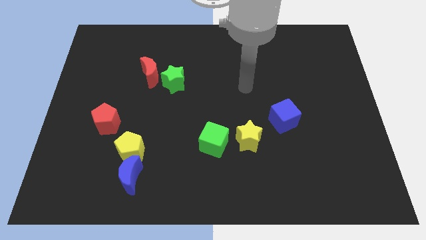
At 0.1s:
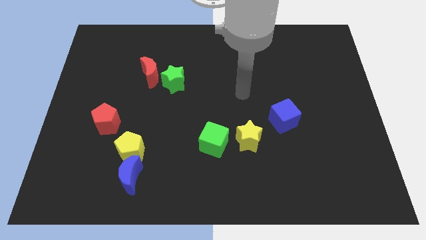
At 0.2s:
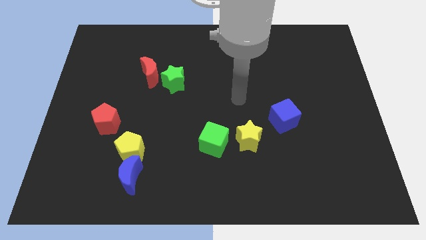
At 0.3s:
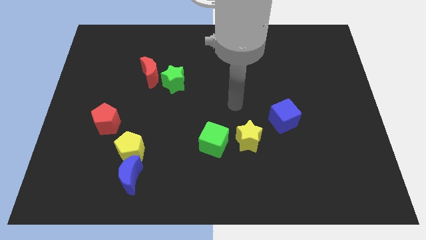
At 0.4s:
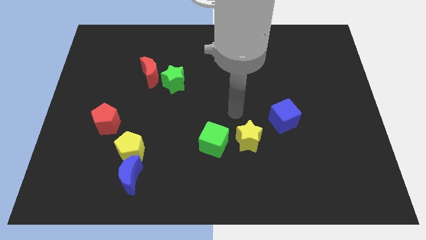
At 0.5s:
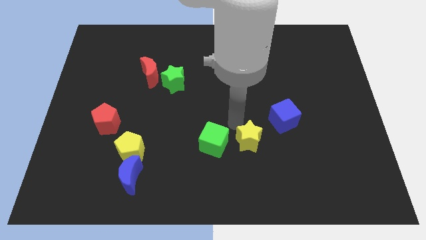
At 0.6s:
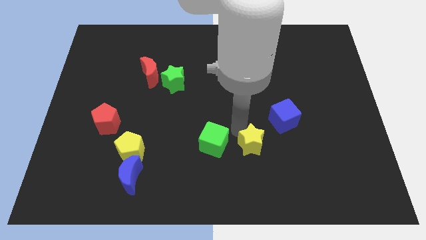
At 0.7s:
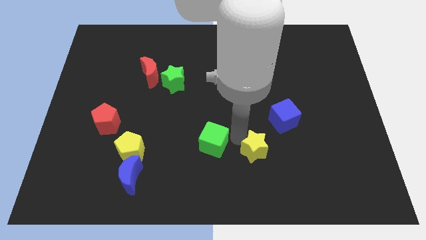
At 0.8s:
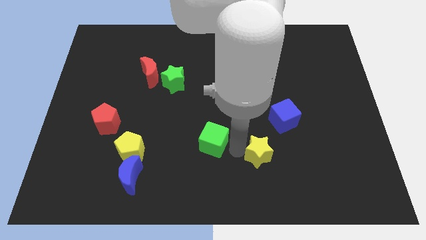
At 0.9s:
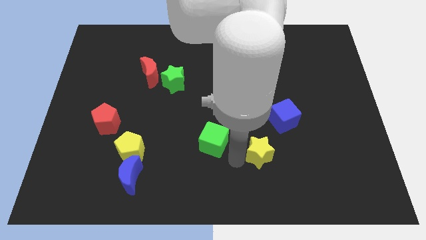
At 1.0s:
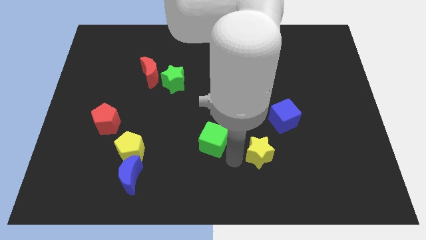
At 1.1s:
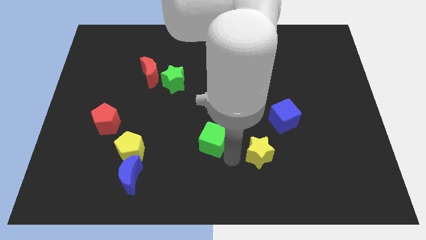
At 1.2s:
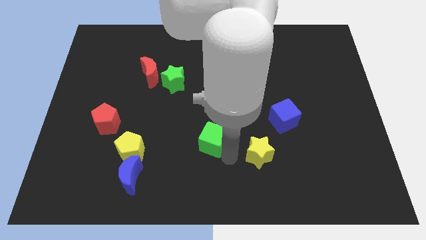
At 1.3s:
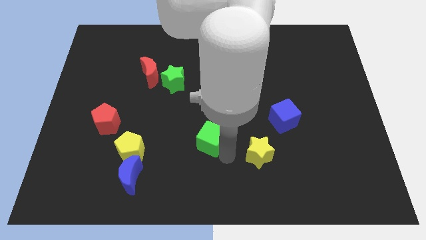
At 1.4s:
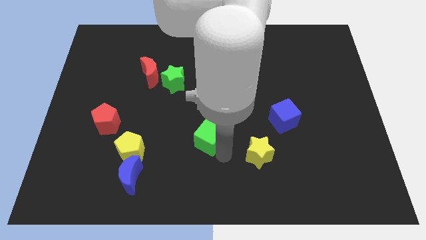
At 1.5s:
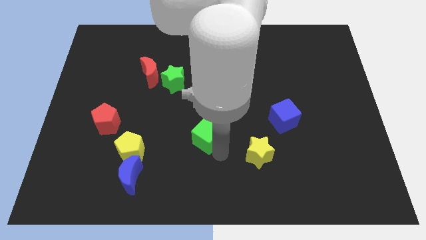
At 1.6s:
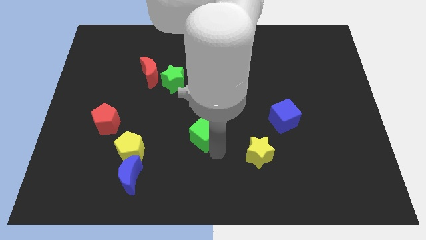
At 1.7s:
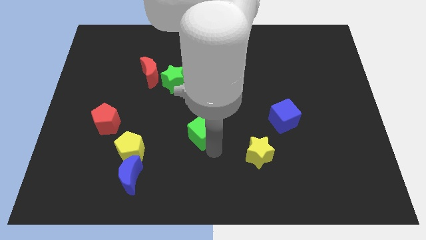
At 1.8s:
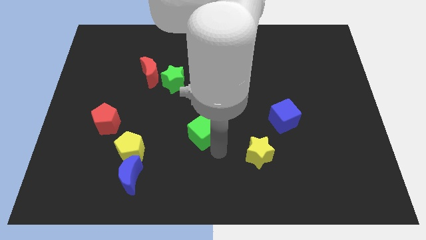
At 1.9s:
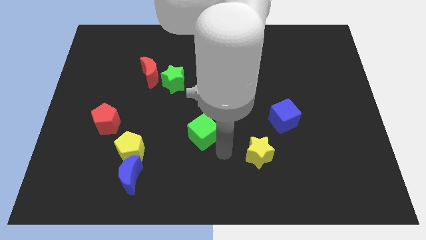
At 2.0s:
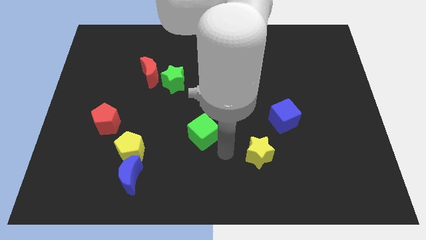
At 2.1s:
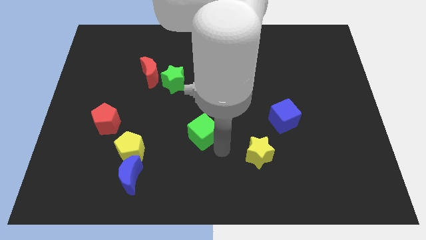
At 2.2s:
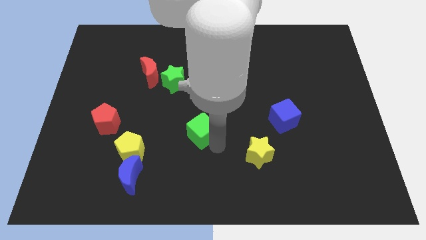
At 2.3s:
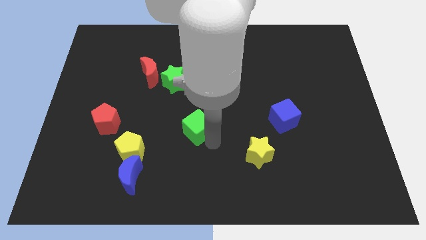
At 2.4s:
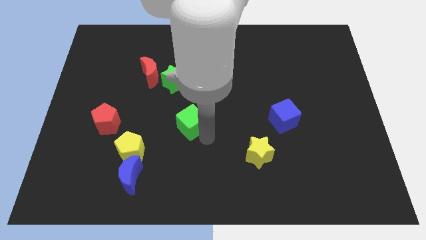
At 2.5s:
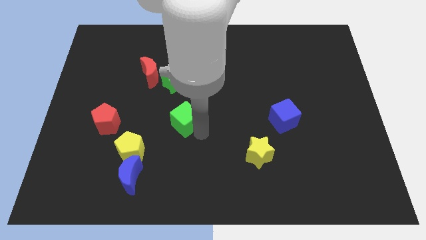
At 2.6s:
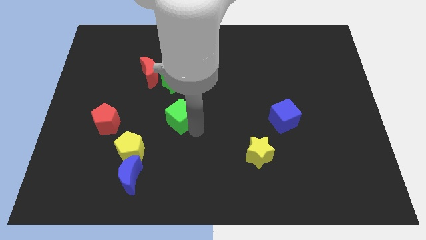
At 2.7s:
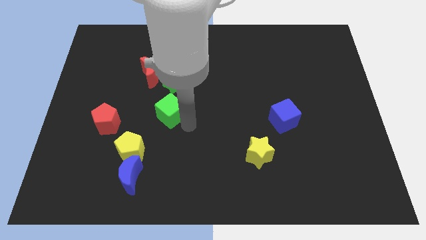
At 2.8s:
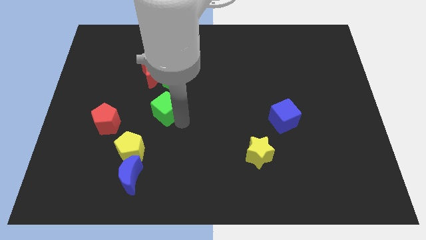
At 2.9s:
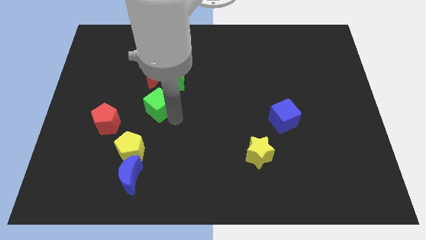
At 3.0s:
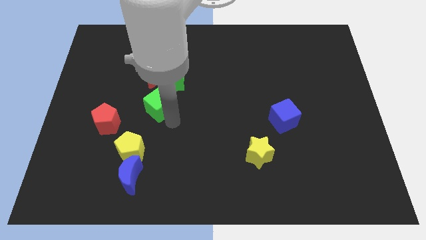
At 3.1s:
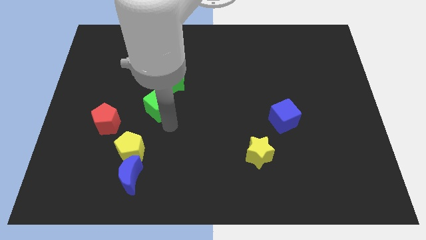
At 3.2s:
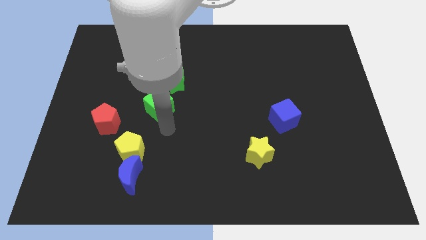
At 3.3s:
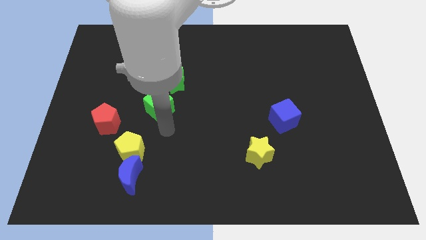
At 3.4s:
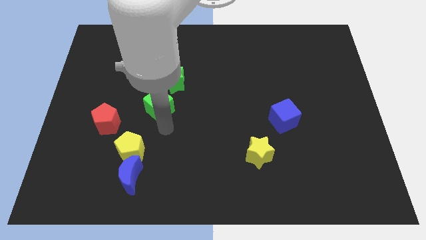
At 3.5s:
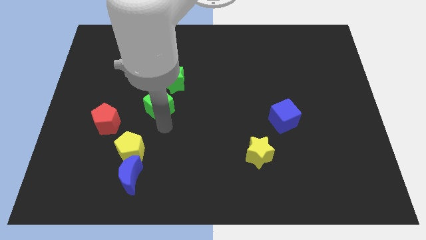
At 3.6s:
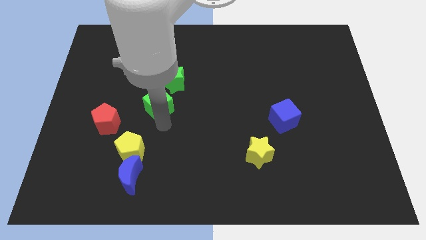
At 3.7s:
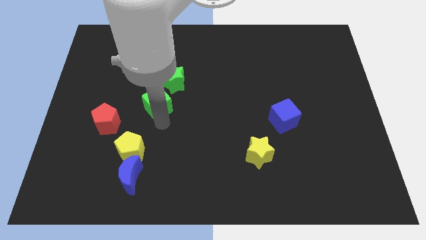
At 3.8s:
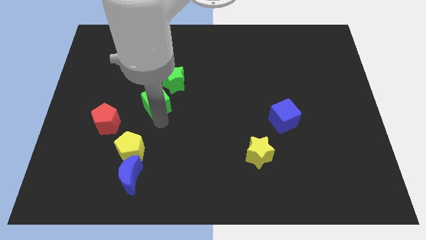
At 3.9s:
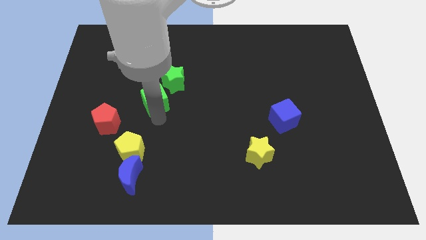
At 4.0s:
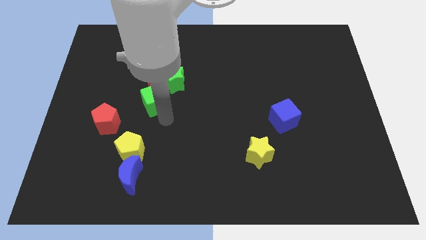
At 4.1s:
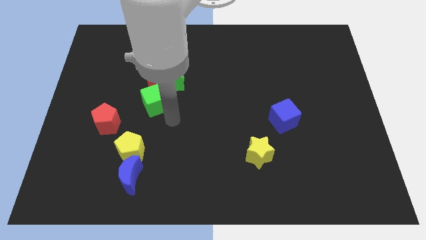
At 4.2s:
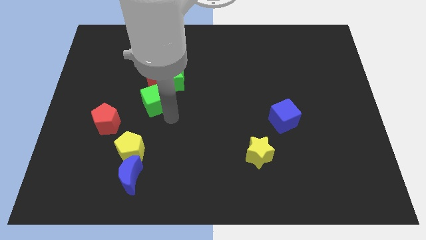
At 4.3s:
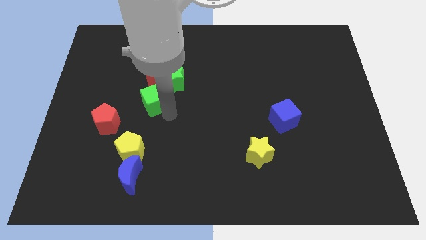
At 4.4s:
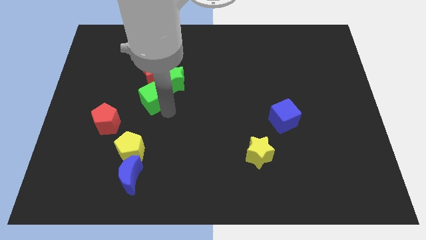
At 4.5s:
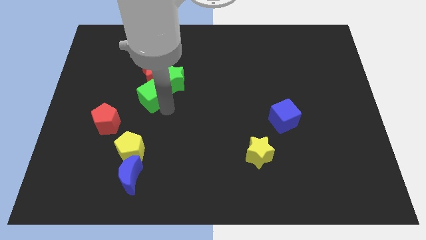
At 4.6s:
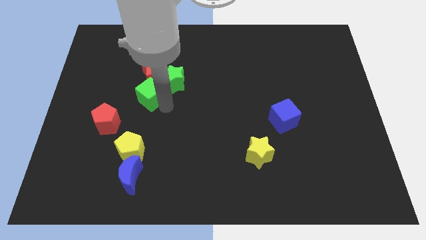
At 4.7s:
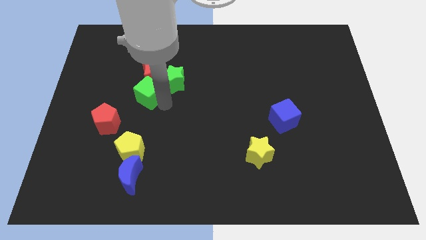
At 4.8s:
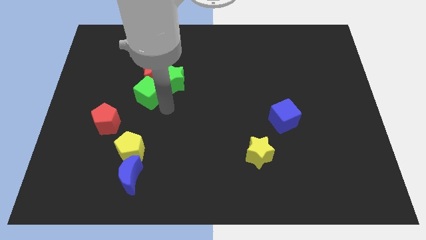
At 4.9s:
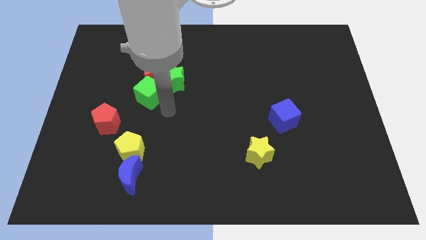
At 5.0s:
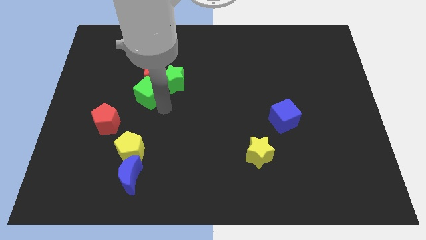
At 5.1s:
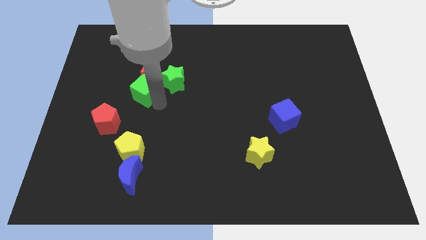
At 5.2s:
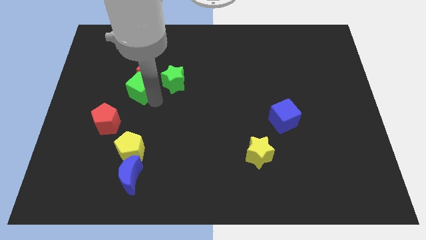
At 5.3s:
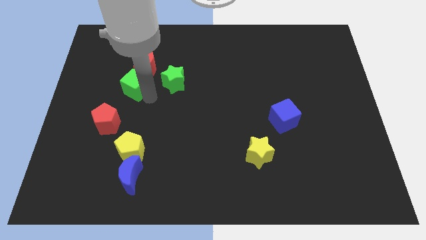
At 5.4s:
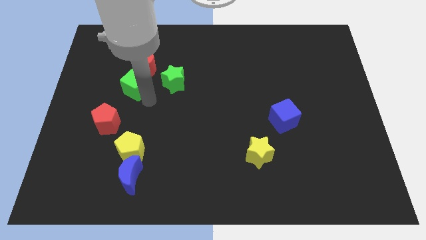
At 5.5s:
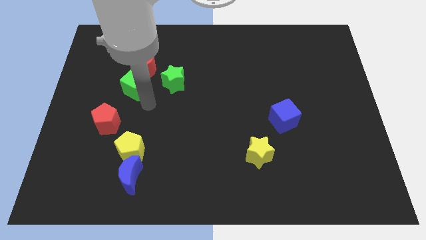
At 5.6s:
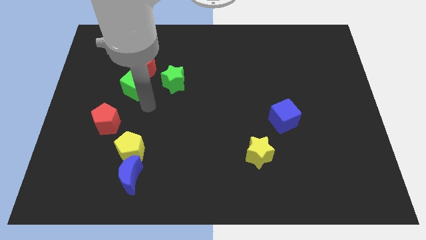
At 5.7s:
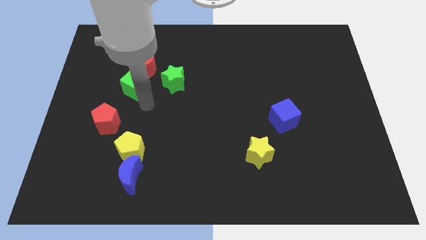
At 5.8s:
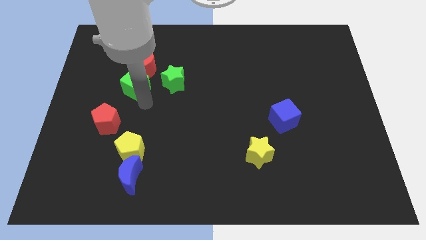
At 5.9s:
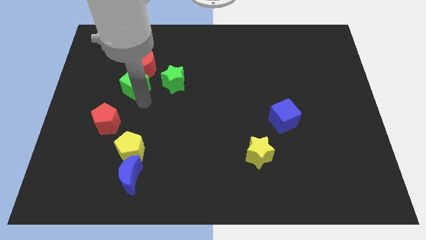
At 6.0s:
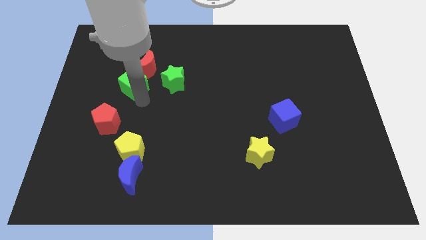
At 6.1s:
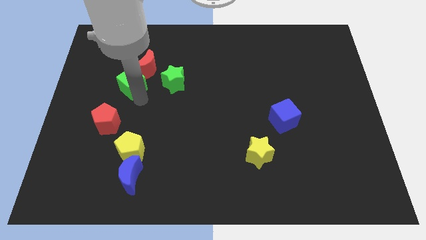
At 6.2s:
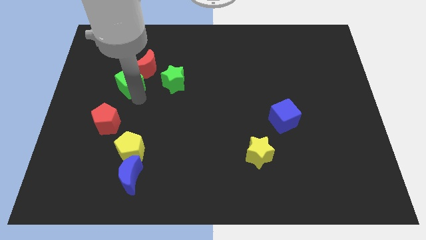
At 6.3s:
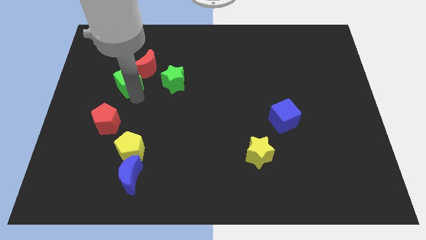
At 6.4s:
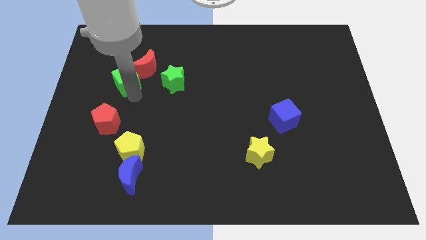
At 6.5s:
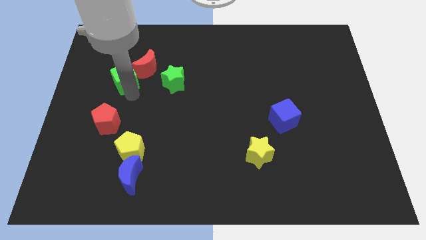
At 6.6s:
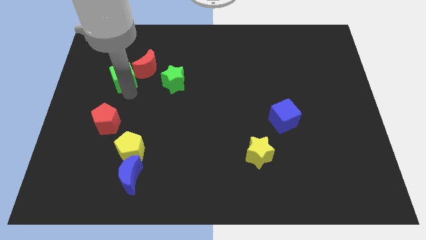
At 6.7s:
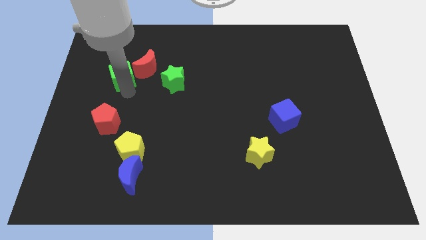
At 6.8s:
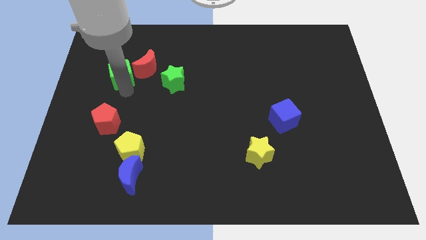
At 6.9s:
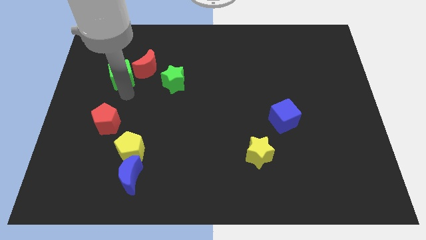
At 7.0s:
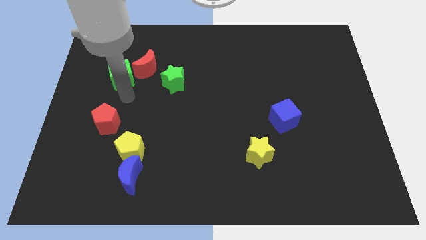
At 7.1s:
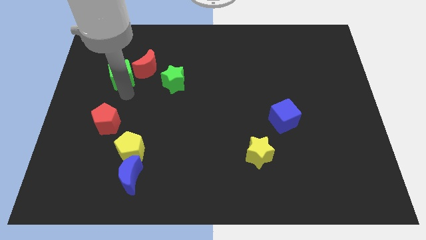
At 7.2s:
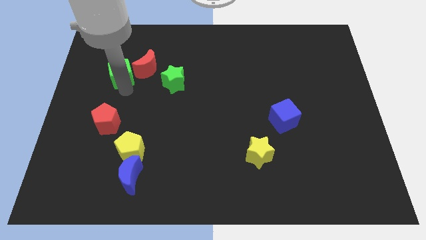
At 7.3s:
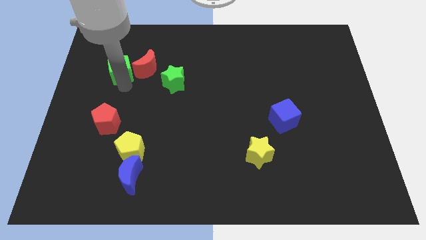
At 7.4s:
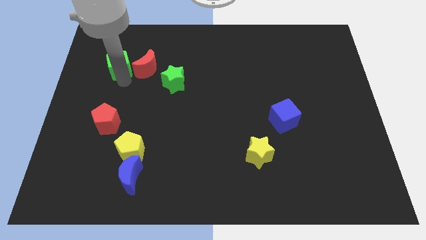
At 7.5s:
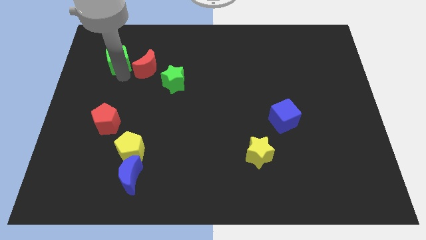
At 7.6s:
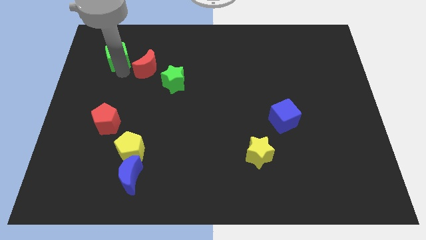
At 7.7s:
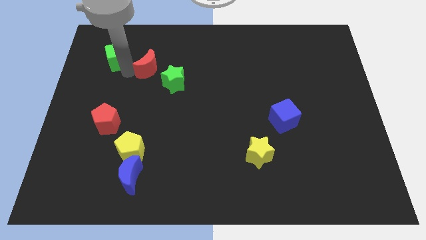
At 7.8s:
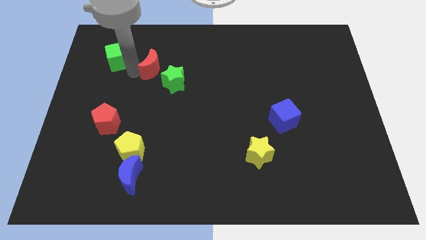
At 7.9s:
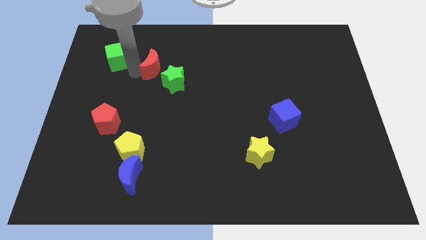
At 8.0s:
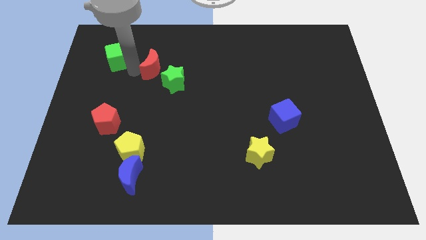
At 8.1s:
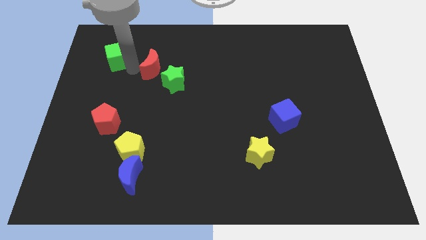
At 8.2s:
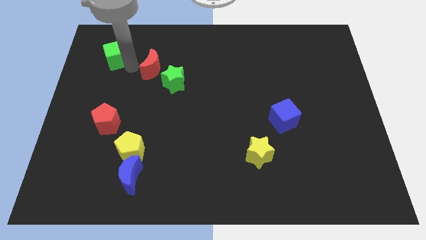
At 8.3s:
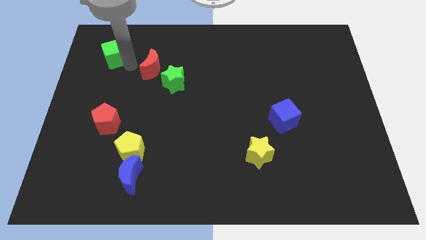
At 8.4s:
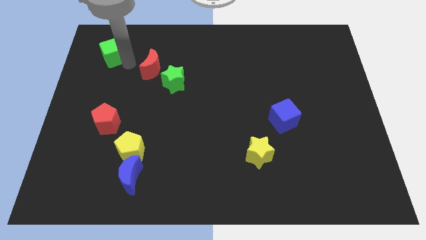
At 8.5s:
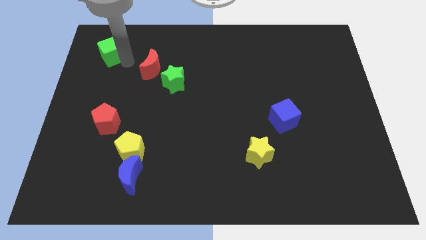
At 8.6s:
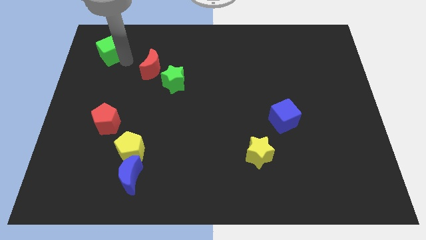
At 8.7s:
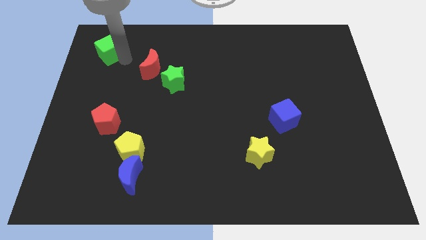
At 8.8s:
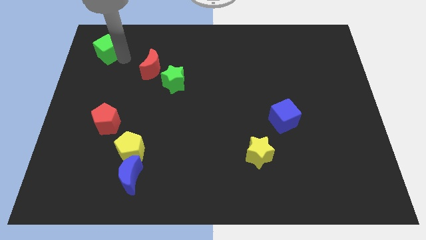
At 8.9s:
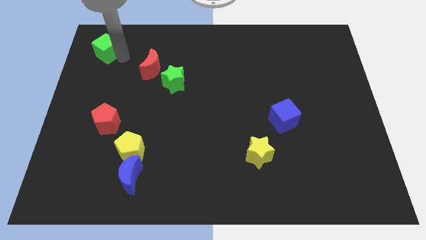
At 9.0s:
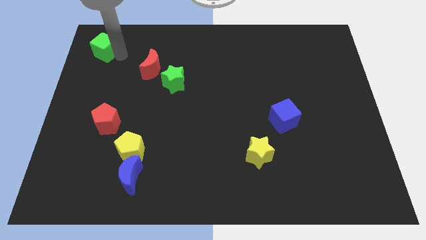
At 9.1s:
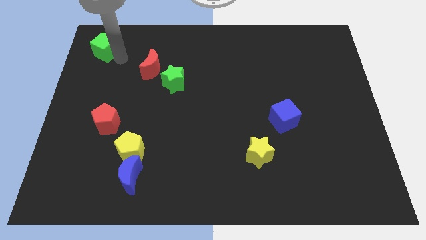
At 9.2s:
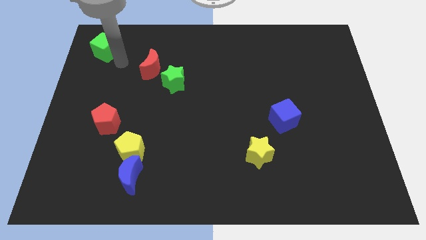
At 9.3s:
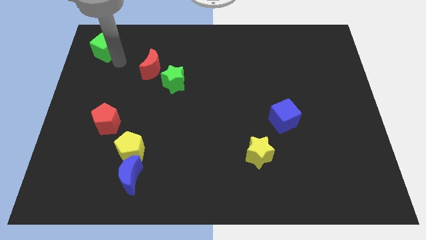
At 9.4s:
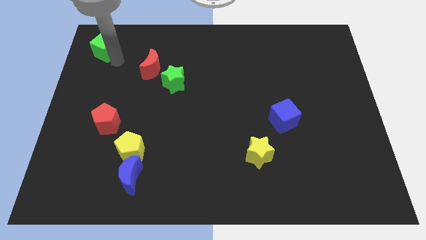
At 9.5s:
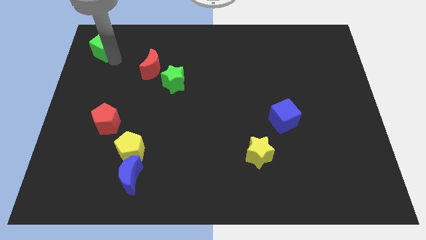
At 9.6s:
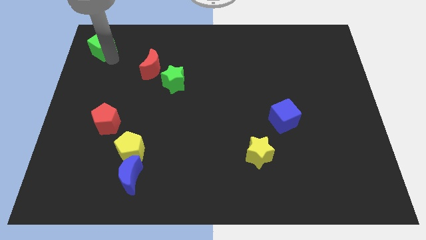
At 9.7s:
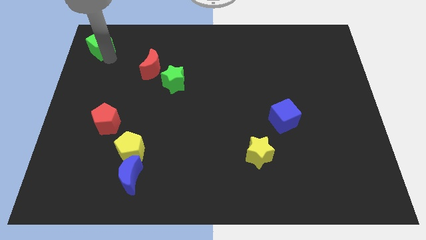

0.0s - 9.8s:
push the green cube to the top left of the board
